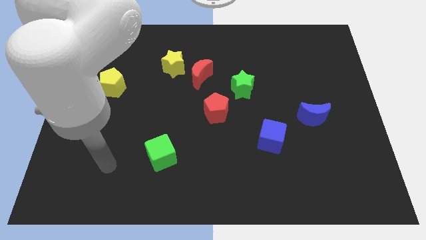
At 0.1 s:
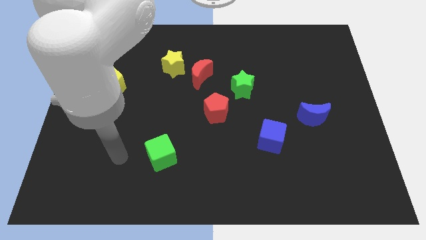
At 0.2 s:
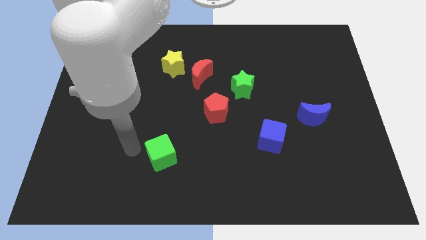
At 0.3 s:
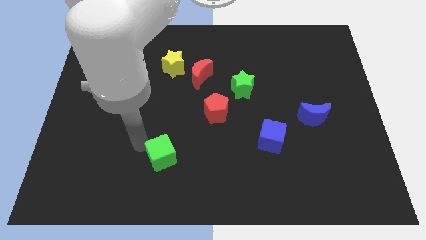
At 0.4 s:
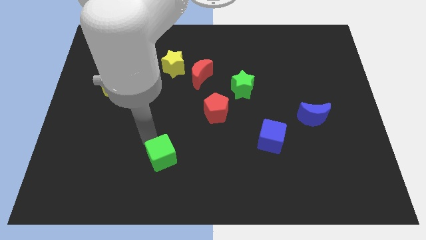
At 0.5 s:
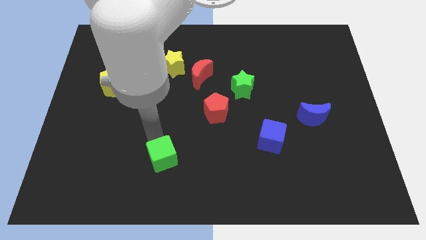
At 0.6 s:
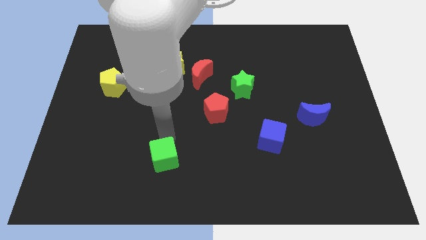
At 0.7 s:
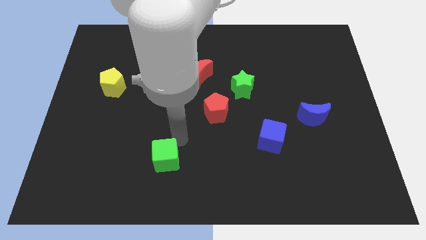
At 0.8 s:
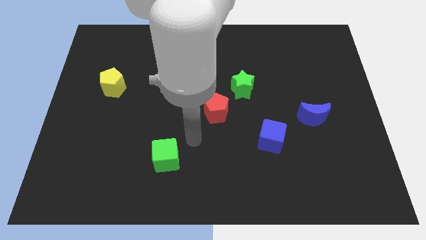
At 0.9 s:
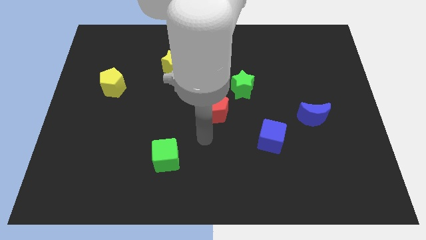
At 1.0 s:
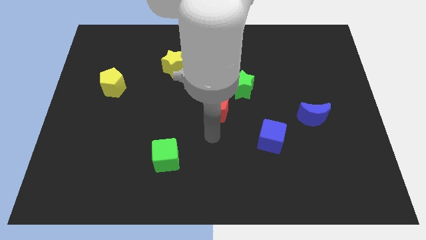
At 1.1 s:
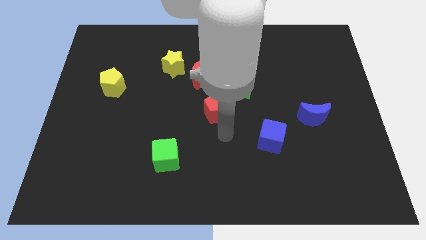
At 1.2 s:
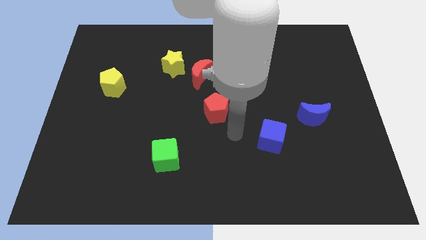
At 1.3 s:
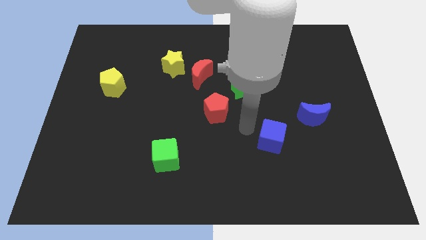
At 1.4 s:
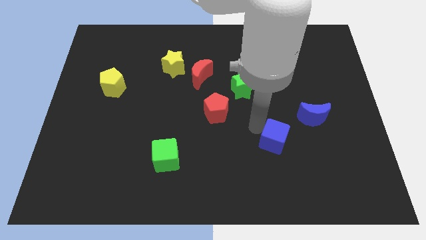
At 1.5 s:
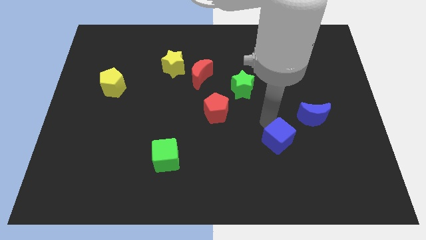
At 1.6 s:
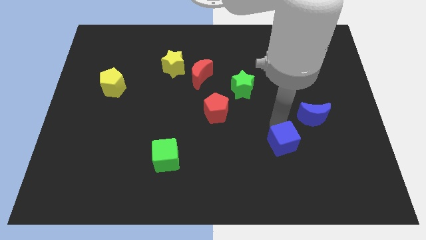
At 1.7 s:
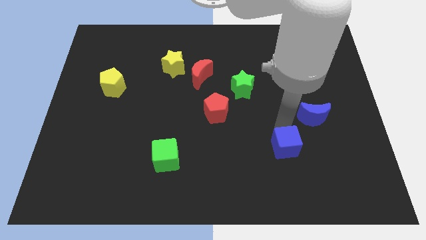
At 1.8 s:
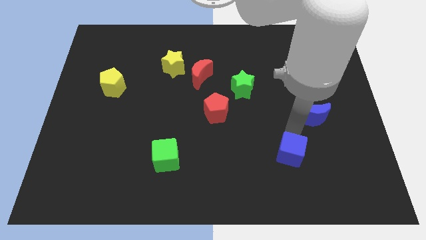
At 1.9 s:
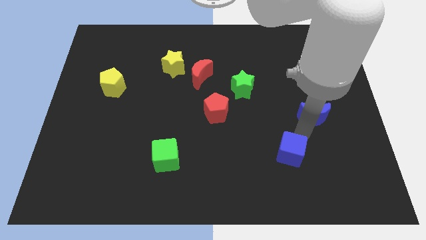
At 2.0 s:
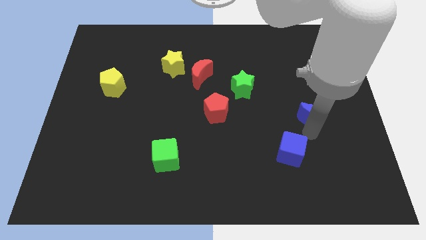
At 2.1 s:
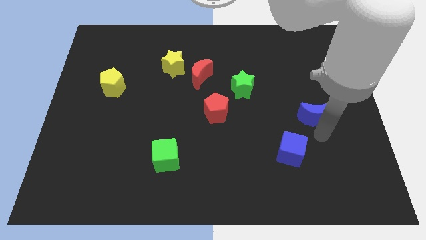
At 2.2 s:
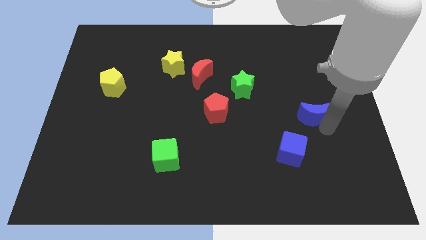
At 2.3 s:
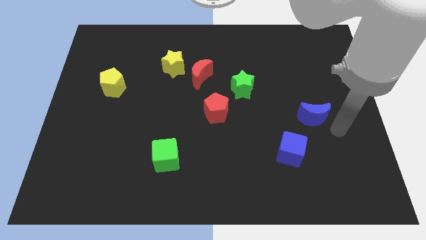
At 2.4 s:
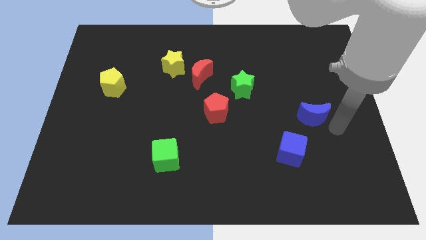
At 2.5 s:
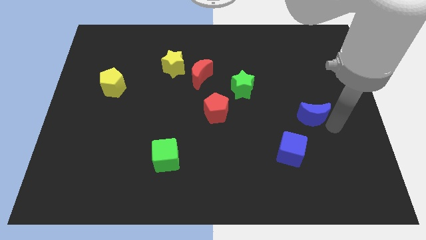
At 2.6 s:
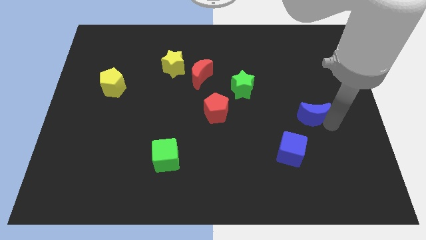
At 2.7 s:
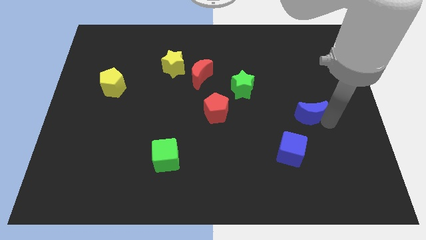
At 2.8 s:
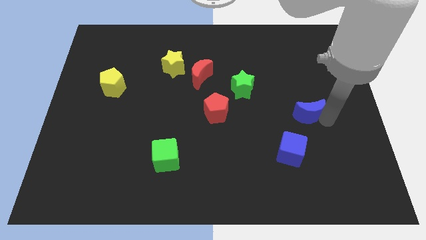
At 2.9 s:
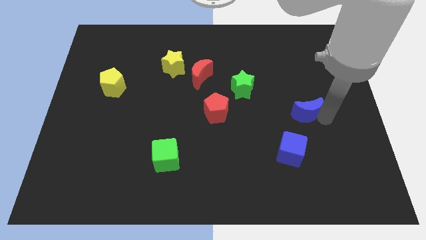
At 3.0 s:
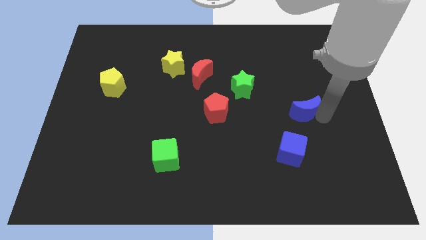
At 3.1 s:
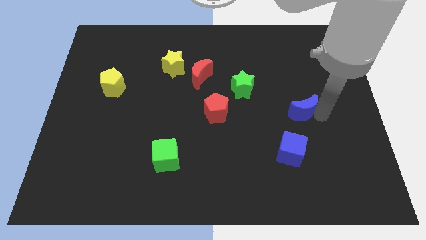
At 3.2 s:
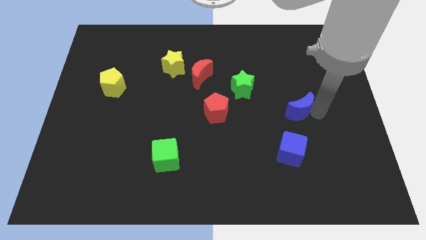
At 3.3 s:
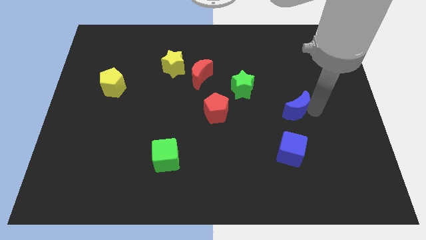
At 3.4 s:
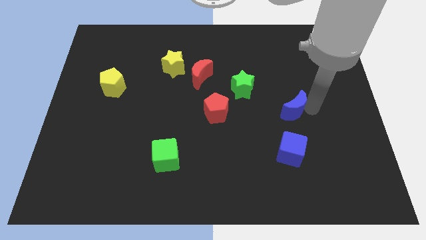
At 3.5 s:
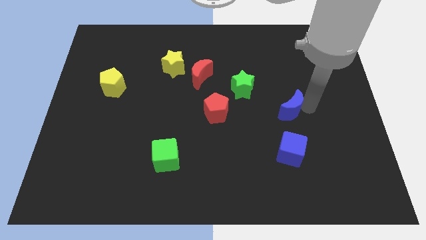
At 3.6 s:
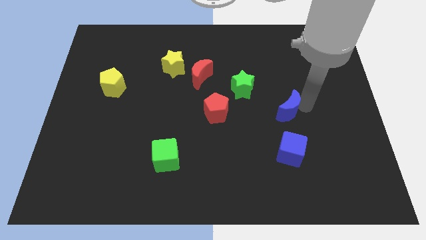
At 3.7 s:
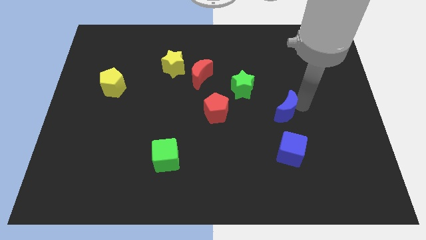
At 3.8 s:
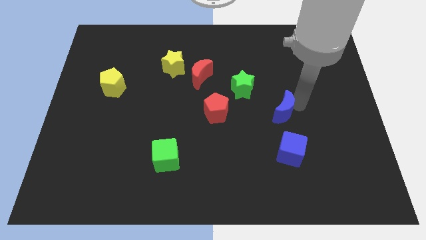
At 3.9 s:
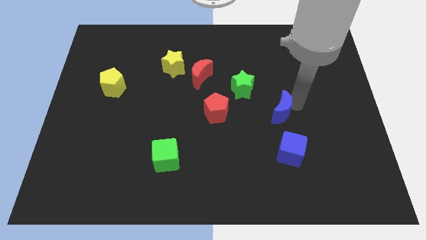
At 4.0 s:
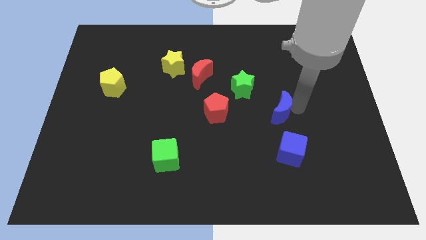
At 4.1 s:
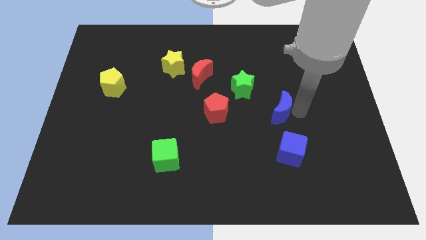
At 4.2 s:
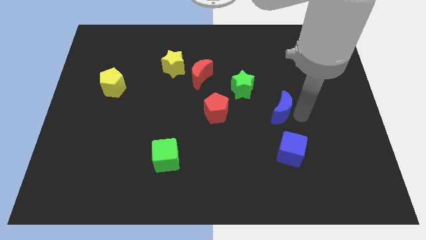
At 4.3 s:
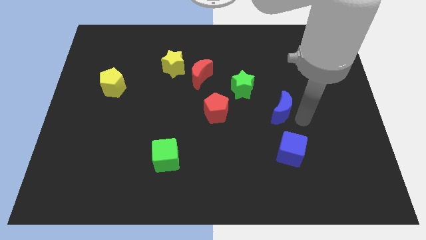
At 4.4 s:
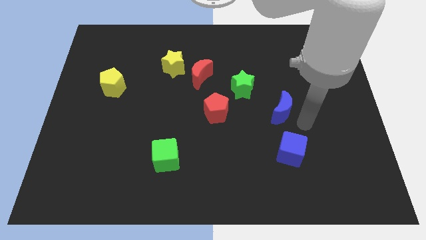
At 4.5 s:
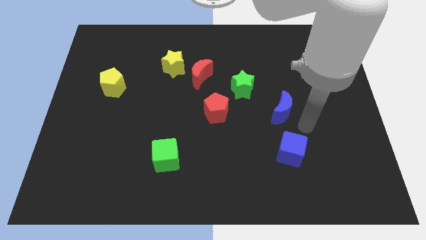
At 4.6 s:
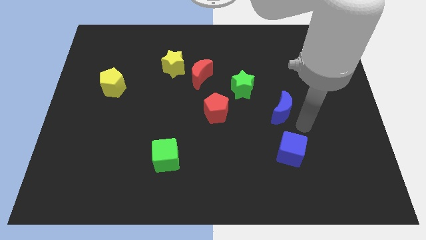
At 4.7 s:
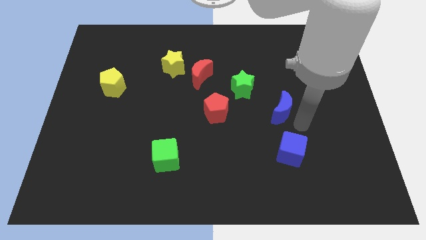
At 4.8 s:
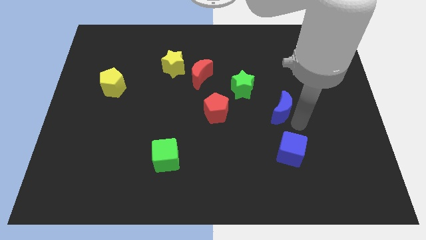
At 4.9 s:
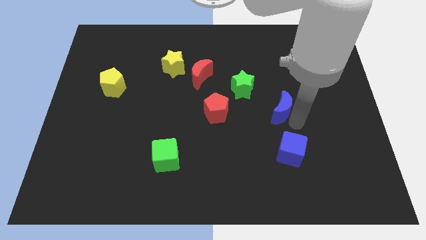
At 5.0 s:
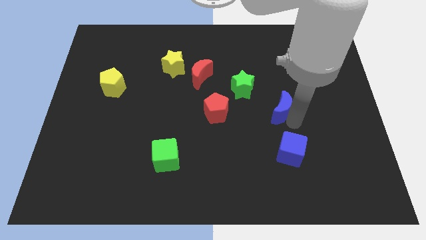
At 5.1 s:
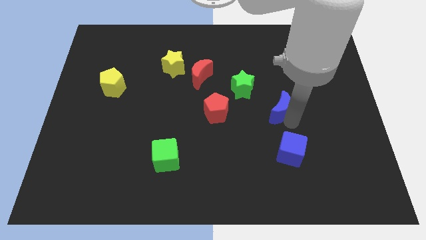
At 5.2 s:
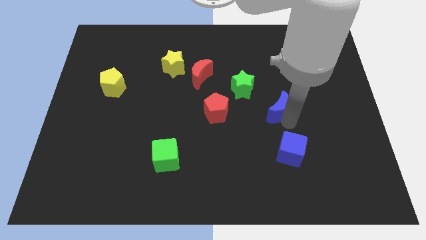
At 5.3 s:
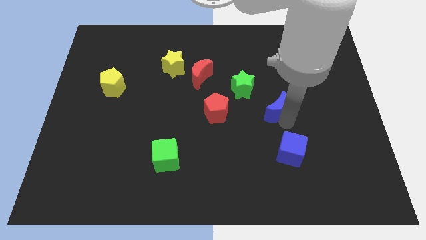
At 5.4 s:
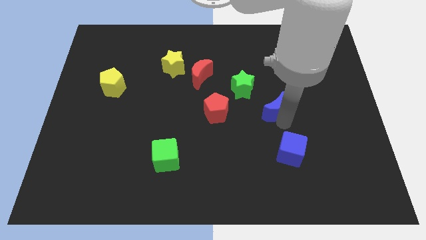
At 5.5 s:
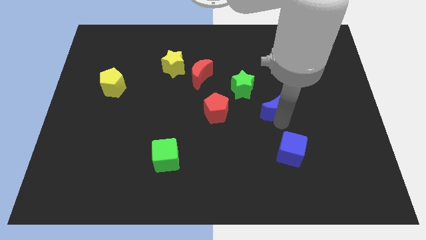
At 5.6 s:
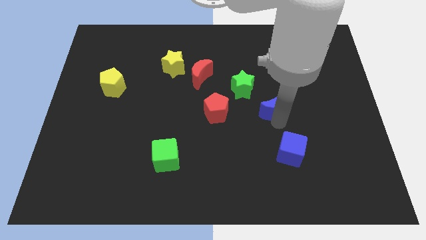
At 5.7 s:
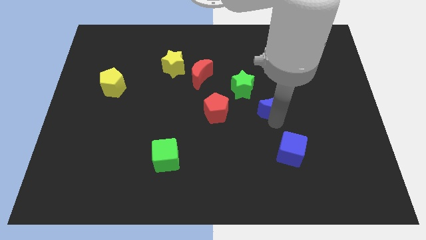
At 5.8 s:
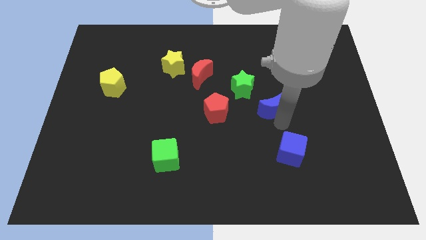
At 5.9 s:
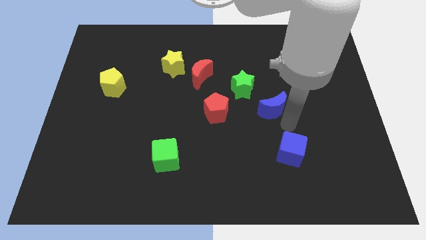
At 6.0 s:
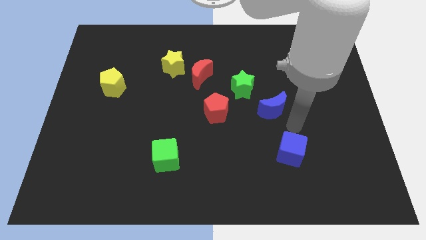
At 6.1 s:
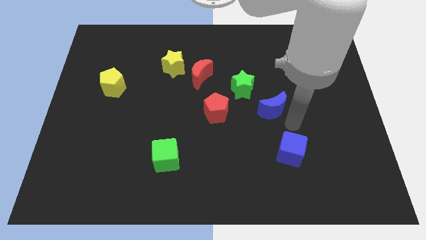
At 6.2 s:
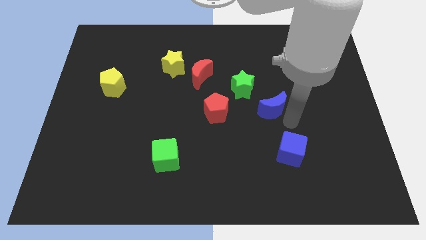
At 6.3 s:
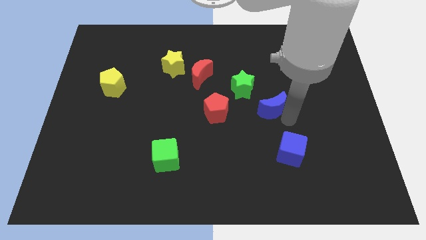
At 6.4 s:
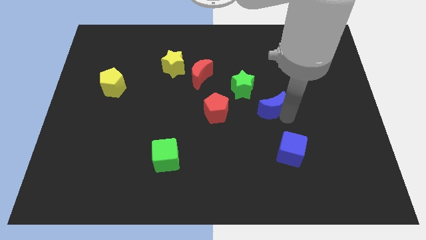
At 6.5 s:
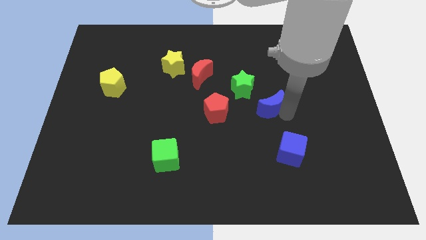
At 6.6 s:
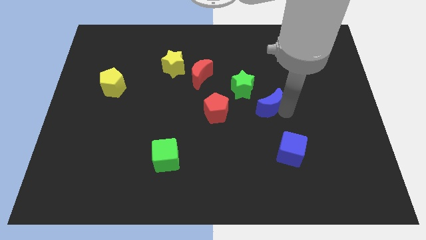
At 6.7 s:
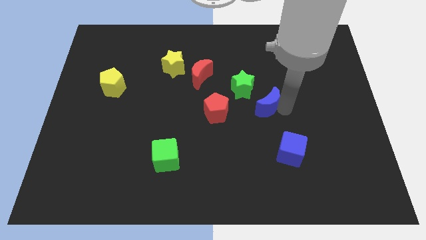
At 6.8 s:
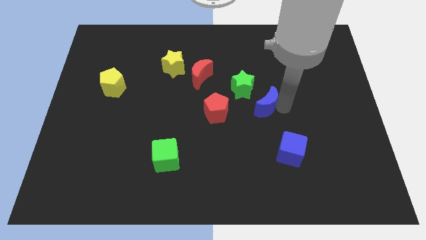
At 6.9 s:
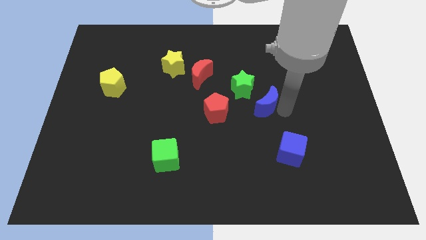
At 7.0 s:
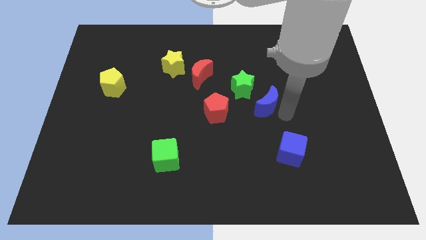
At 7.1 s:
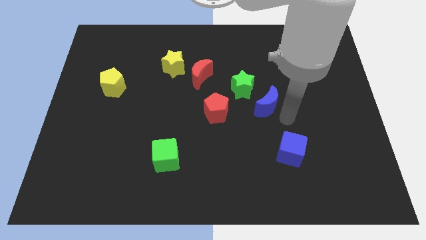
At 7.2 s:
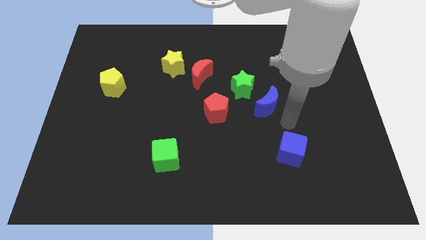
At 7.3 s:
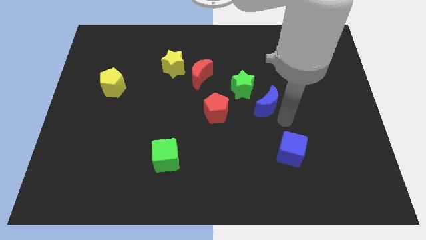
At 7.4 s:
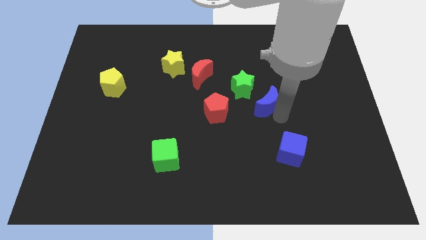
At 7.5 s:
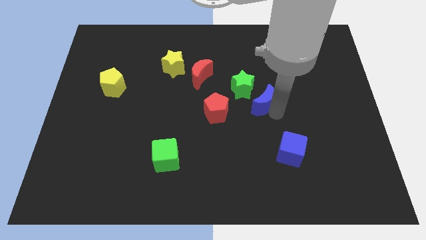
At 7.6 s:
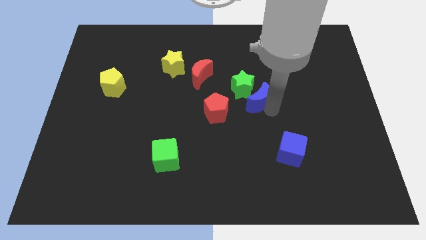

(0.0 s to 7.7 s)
put the blue moon to the green star
